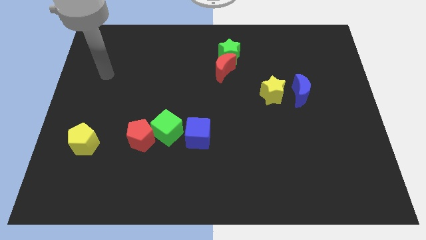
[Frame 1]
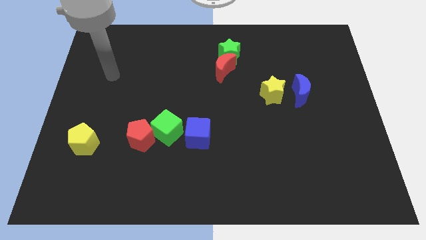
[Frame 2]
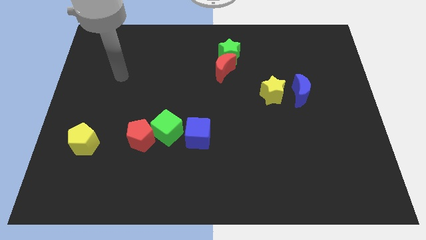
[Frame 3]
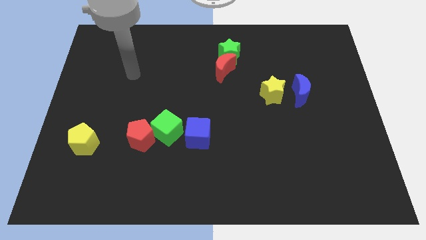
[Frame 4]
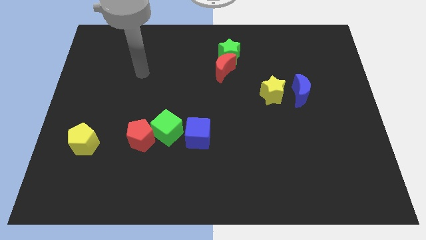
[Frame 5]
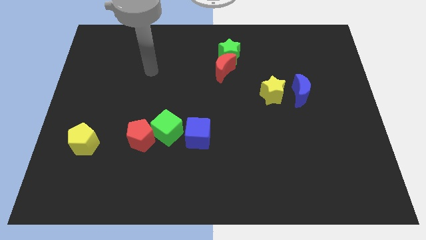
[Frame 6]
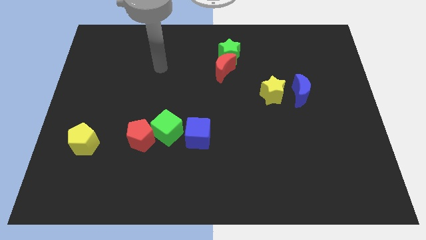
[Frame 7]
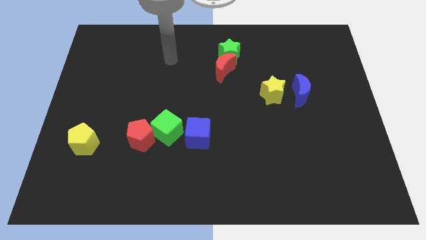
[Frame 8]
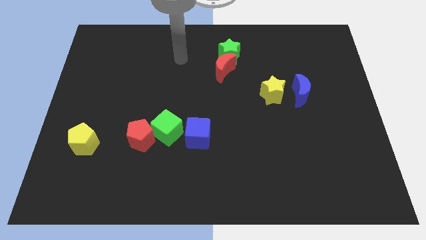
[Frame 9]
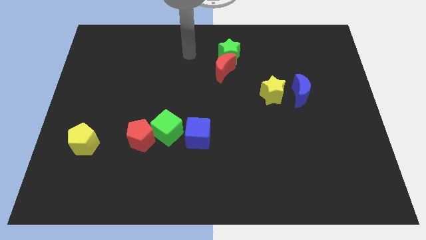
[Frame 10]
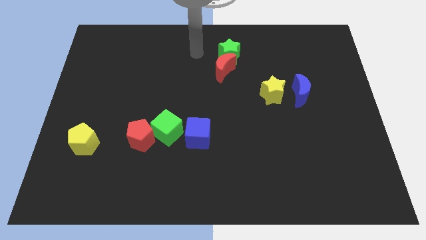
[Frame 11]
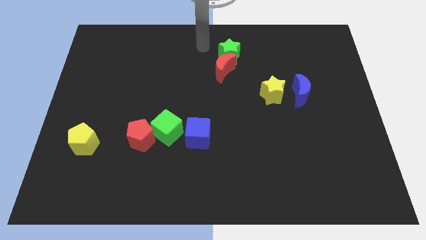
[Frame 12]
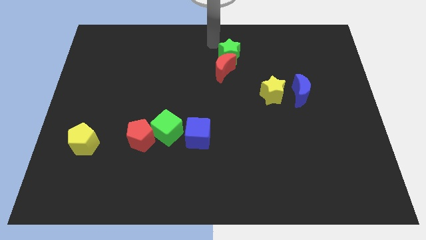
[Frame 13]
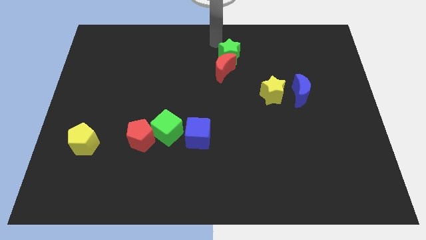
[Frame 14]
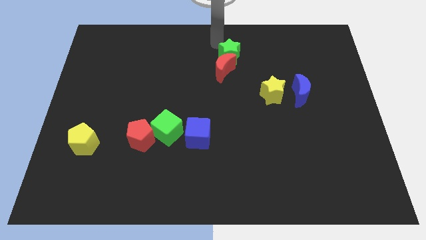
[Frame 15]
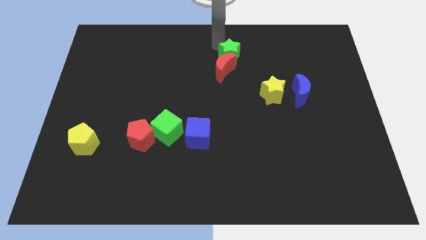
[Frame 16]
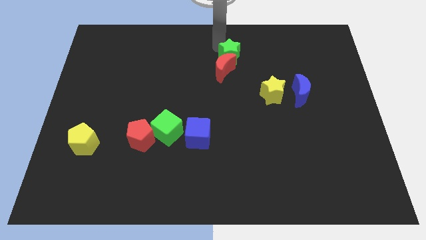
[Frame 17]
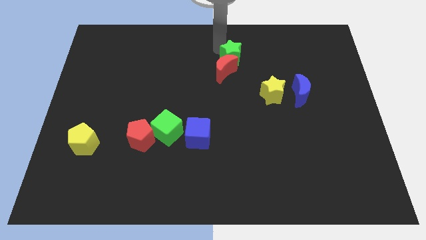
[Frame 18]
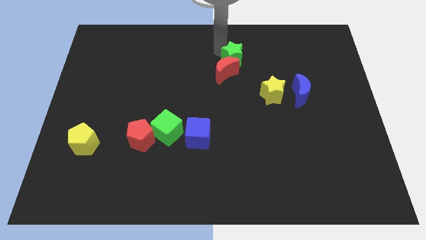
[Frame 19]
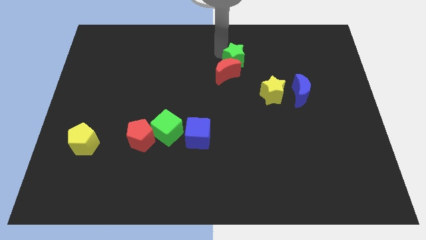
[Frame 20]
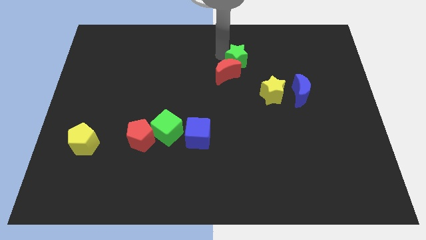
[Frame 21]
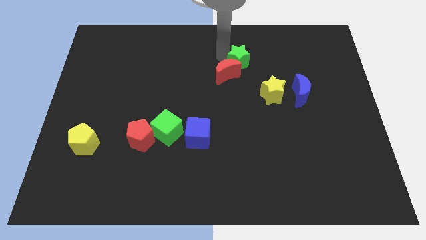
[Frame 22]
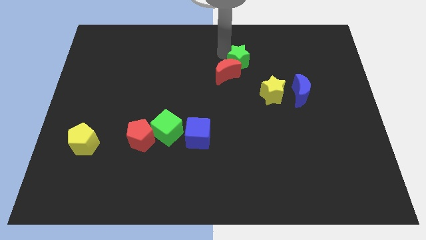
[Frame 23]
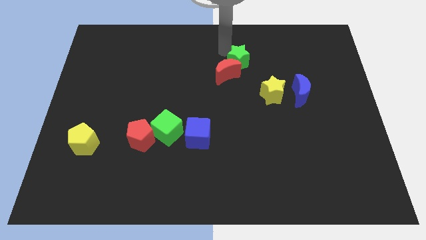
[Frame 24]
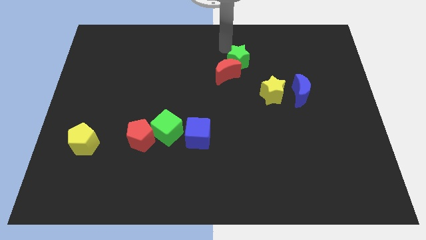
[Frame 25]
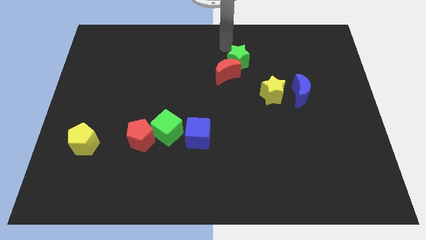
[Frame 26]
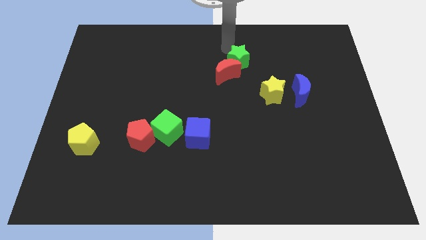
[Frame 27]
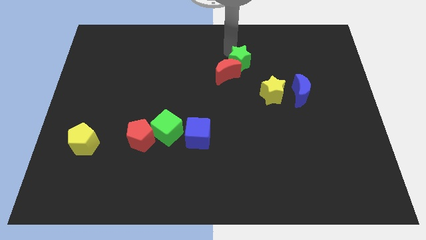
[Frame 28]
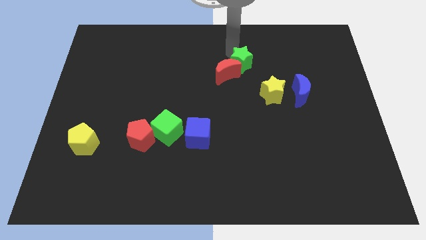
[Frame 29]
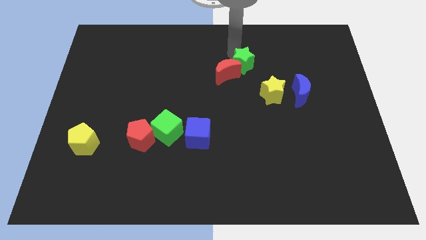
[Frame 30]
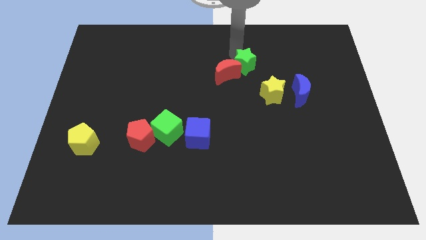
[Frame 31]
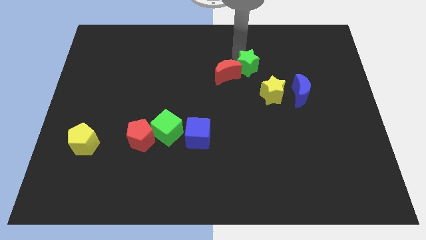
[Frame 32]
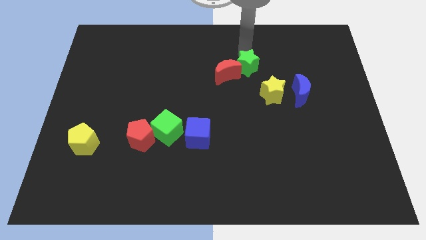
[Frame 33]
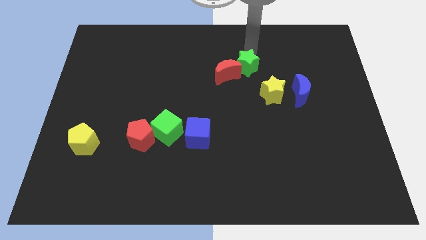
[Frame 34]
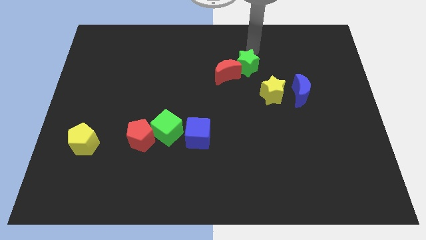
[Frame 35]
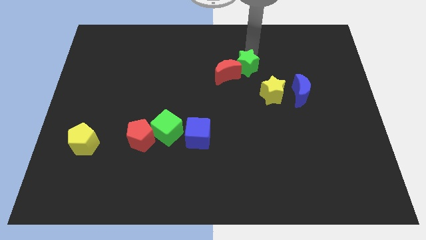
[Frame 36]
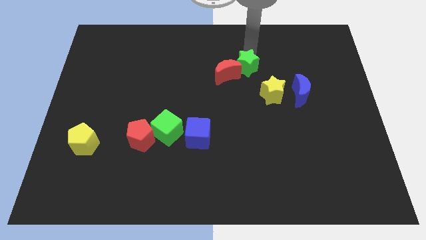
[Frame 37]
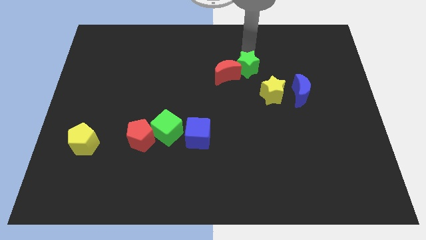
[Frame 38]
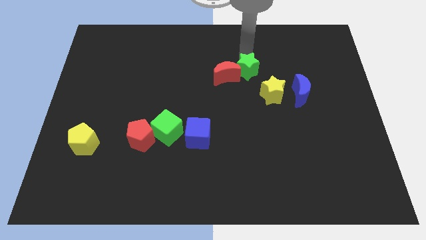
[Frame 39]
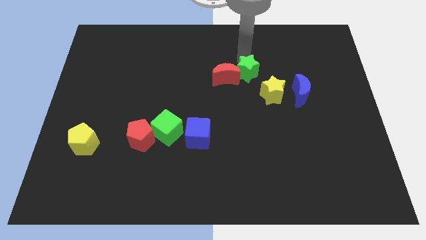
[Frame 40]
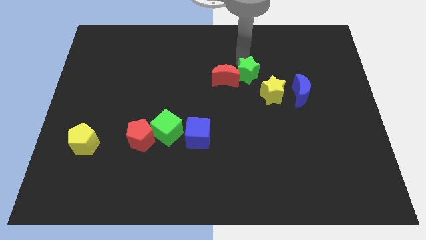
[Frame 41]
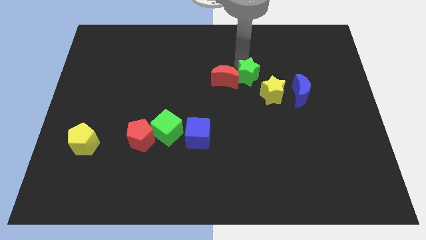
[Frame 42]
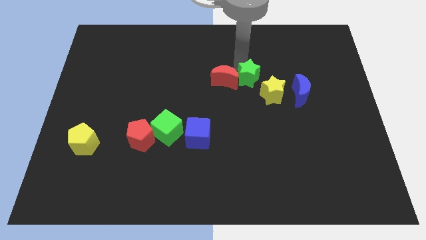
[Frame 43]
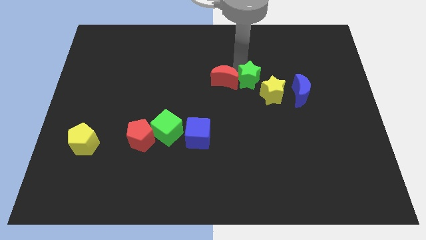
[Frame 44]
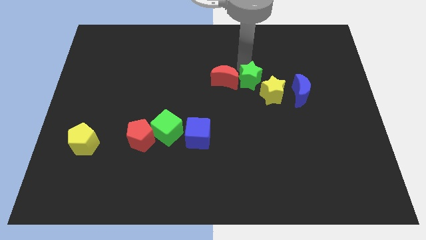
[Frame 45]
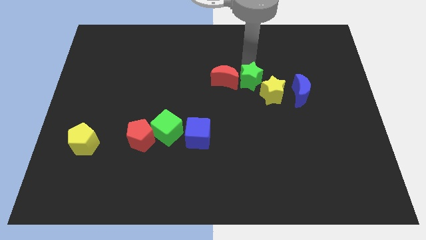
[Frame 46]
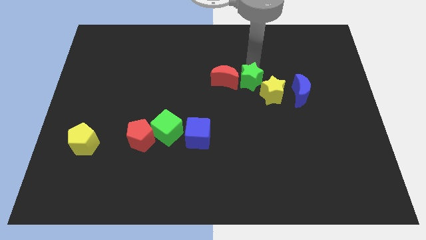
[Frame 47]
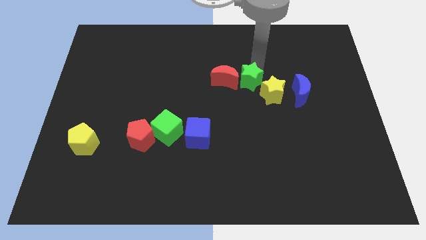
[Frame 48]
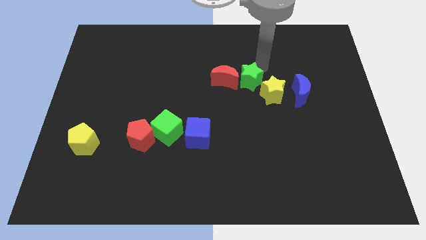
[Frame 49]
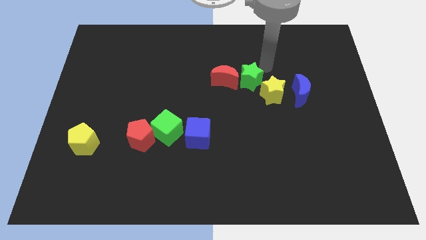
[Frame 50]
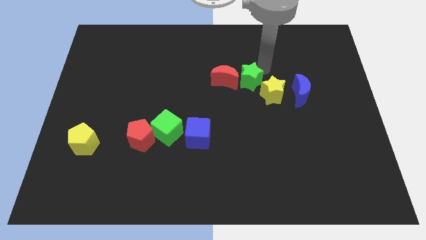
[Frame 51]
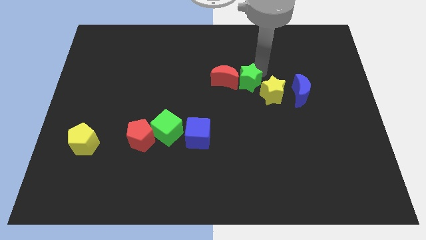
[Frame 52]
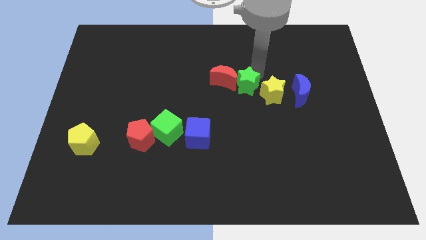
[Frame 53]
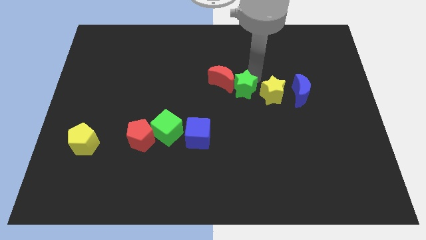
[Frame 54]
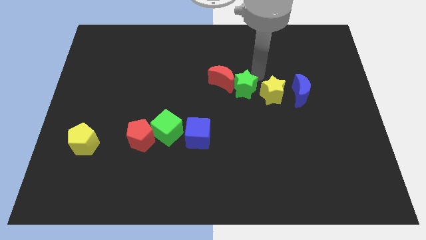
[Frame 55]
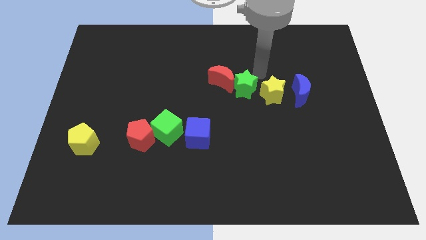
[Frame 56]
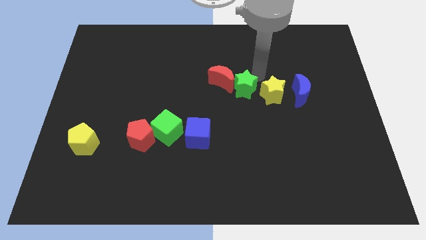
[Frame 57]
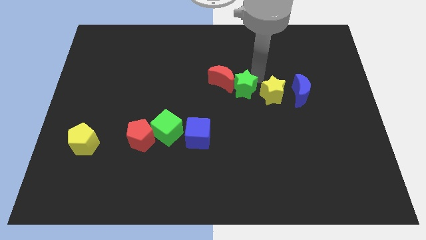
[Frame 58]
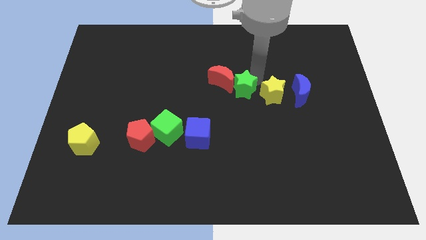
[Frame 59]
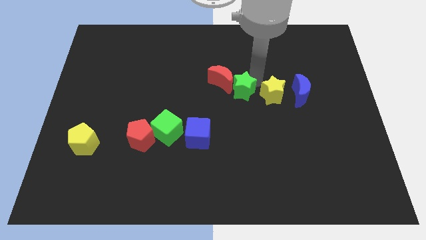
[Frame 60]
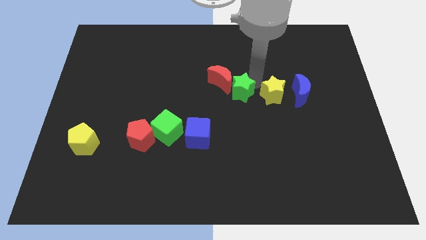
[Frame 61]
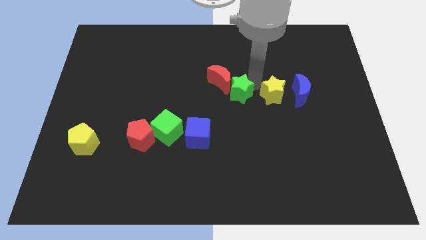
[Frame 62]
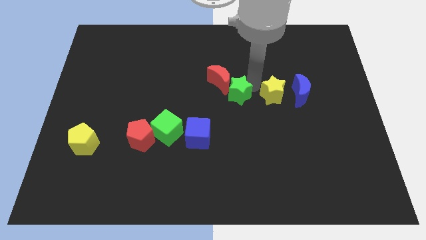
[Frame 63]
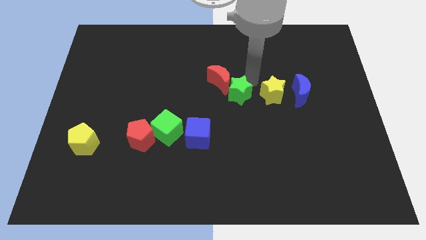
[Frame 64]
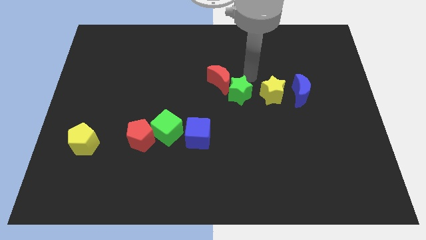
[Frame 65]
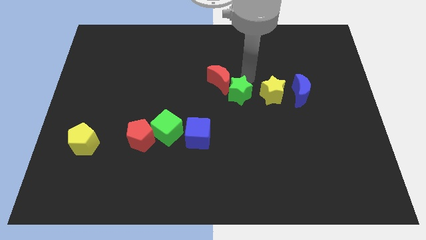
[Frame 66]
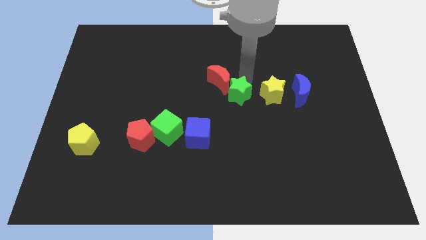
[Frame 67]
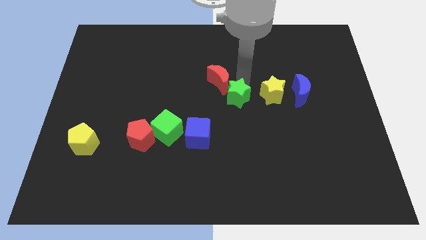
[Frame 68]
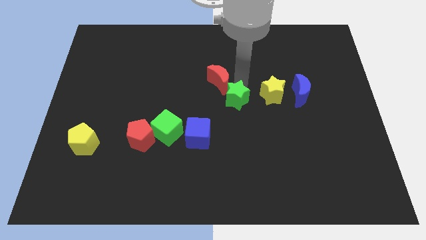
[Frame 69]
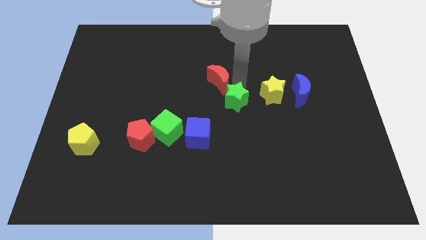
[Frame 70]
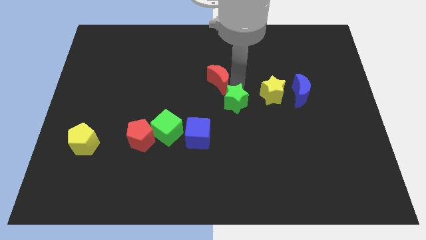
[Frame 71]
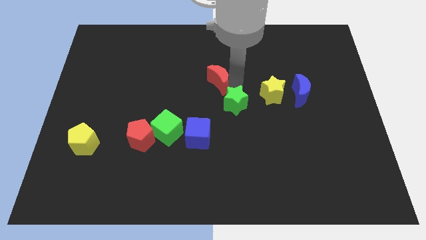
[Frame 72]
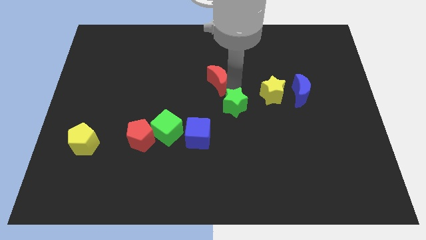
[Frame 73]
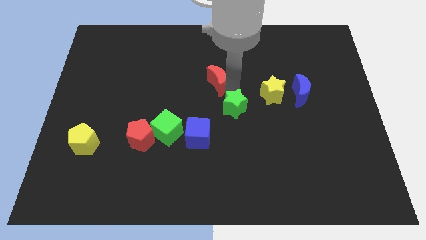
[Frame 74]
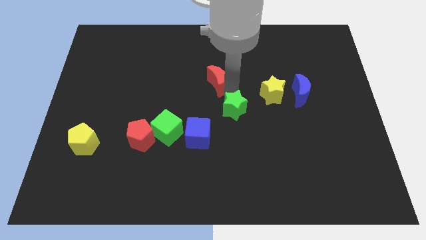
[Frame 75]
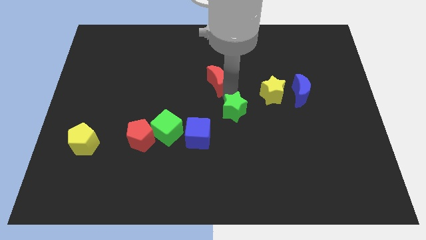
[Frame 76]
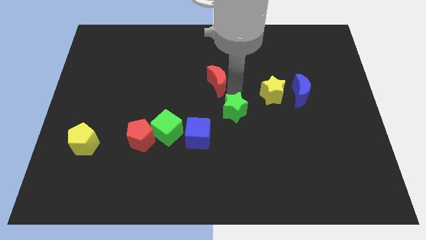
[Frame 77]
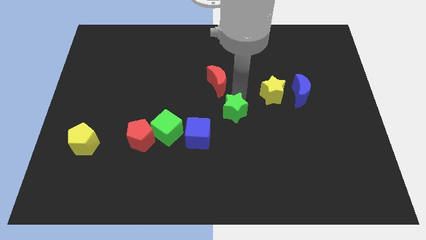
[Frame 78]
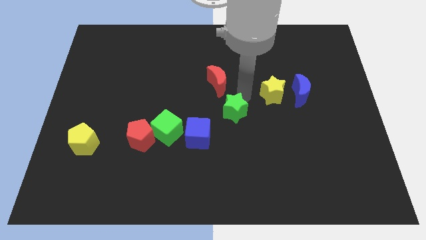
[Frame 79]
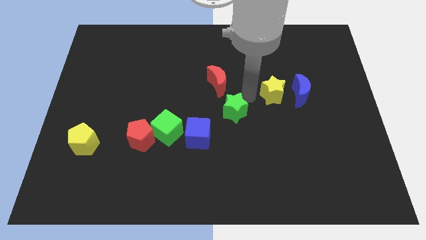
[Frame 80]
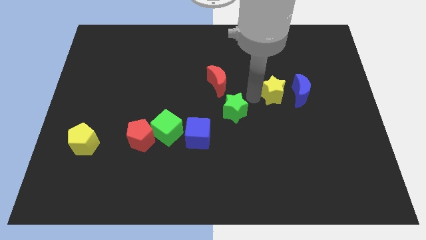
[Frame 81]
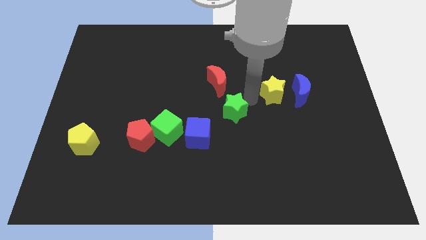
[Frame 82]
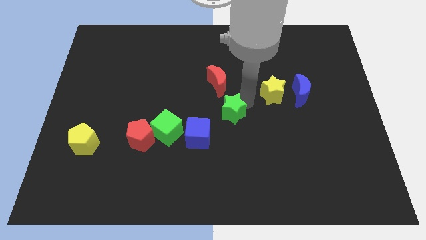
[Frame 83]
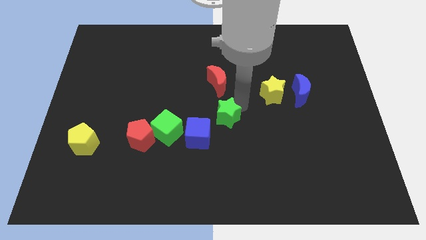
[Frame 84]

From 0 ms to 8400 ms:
move the green star just right of the green cube
